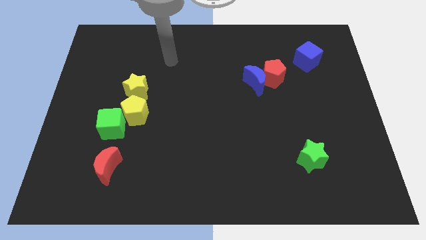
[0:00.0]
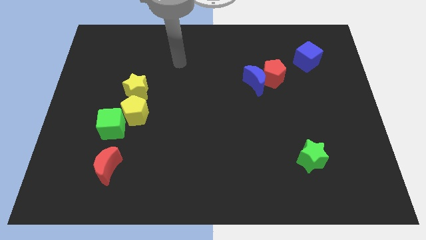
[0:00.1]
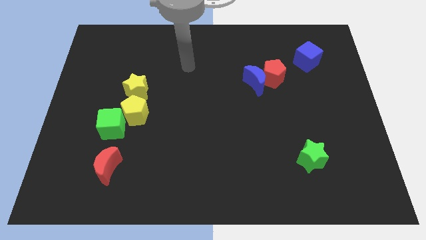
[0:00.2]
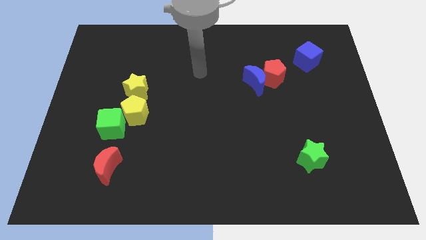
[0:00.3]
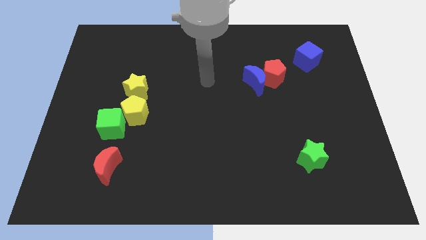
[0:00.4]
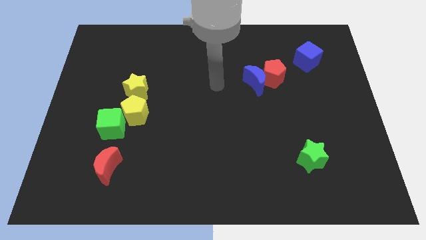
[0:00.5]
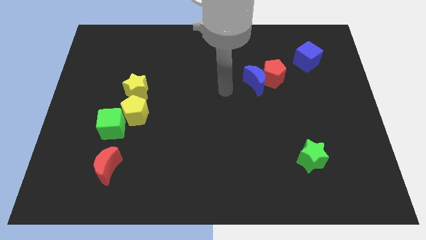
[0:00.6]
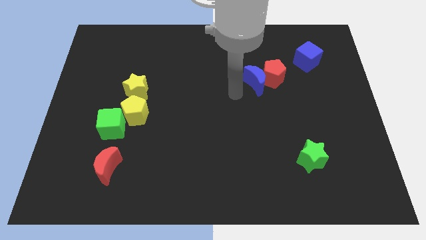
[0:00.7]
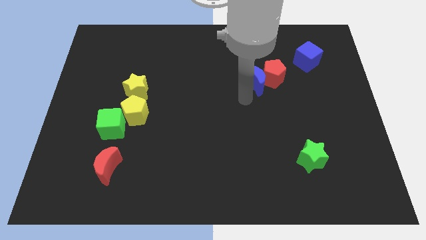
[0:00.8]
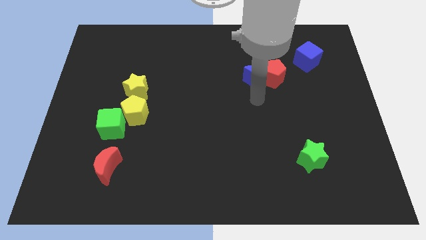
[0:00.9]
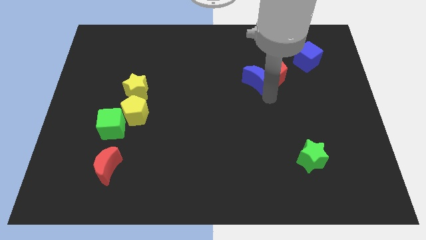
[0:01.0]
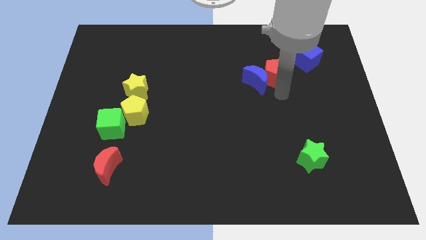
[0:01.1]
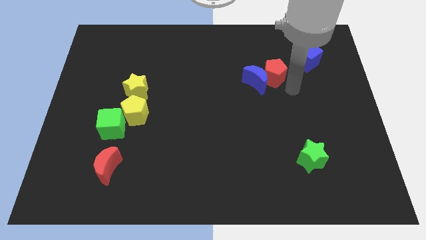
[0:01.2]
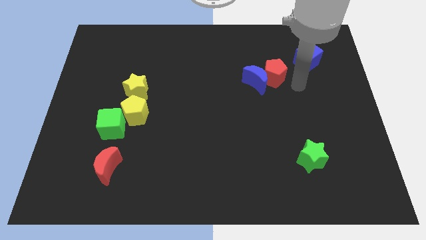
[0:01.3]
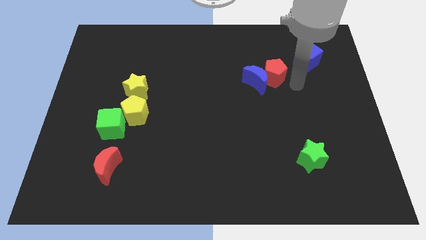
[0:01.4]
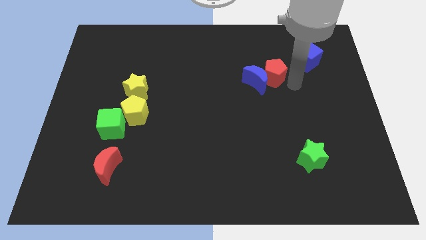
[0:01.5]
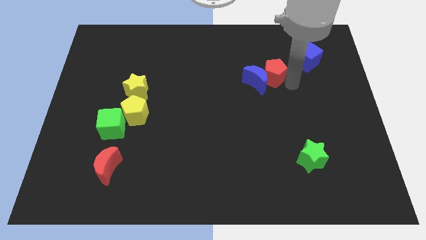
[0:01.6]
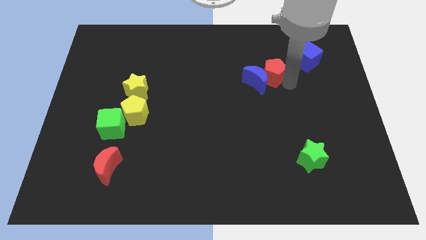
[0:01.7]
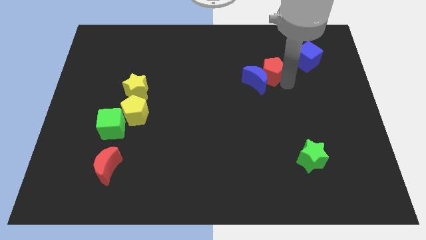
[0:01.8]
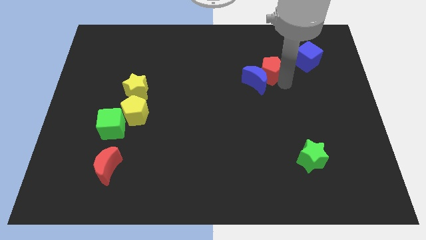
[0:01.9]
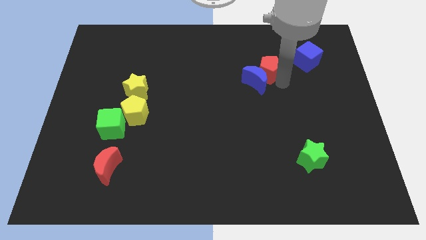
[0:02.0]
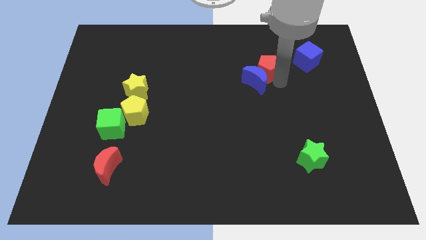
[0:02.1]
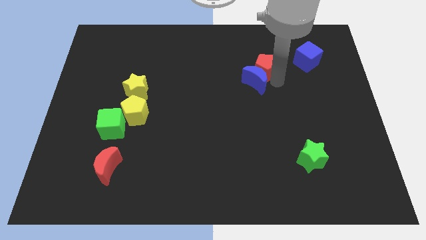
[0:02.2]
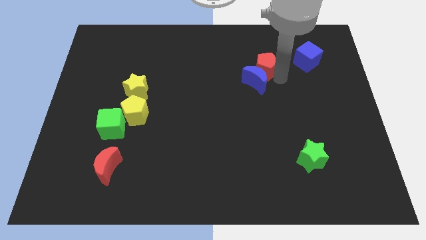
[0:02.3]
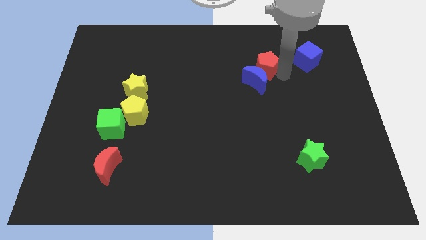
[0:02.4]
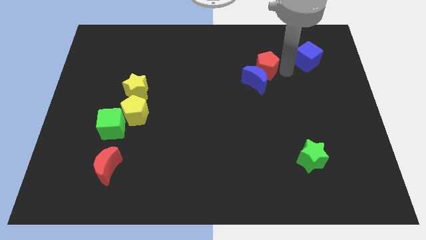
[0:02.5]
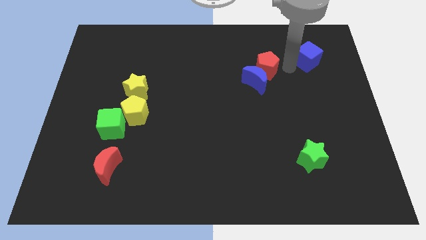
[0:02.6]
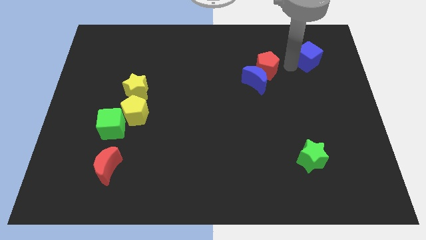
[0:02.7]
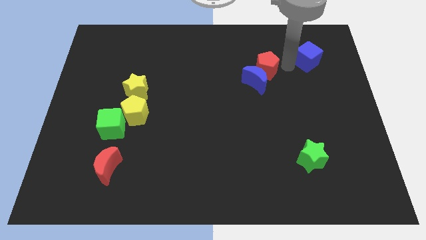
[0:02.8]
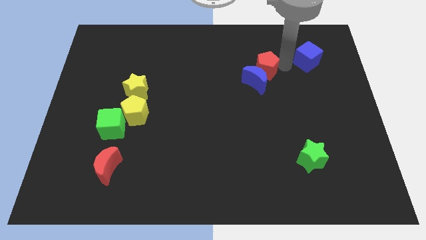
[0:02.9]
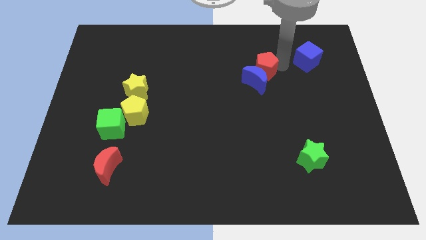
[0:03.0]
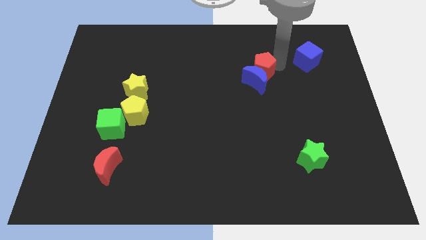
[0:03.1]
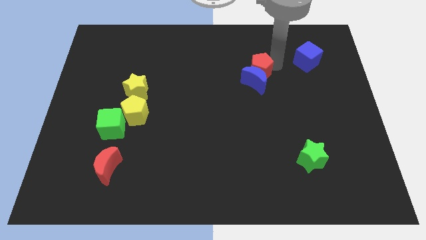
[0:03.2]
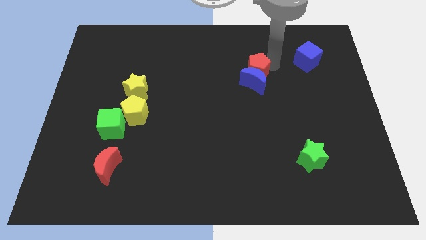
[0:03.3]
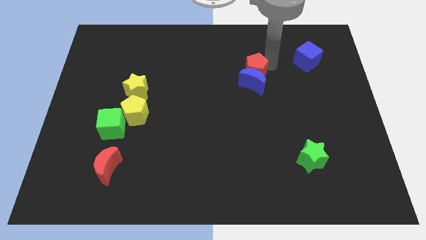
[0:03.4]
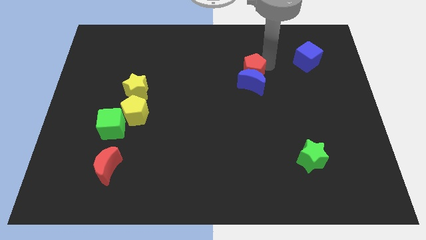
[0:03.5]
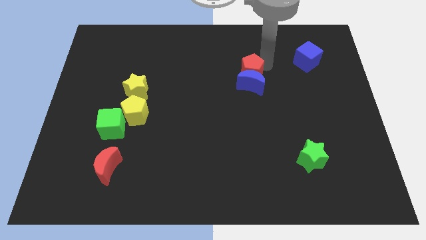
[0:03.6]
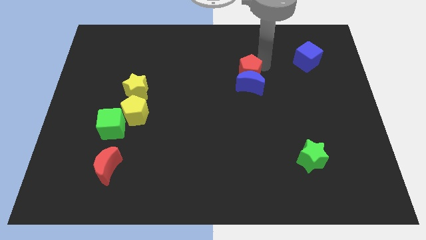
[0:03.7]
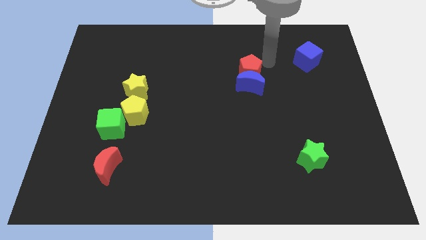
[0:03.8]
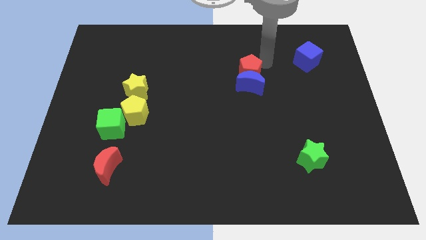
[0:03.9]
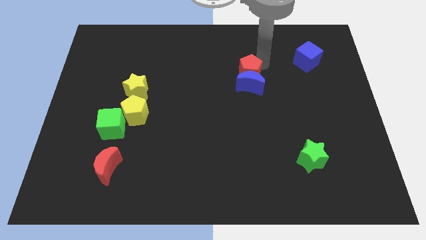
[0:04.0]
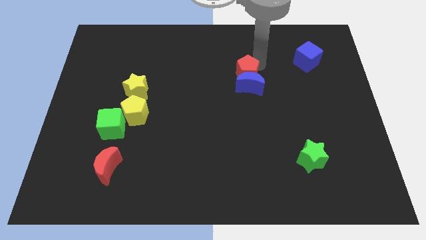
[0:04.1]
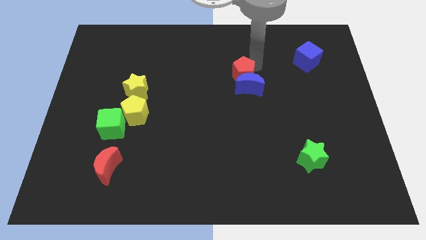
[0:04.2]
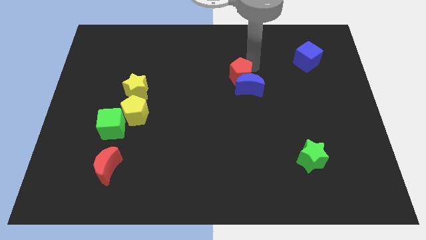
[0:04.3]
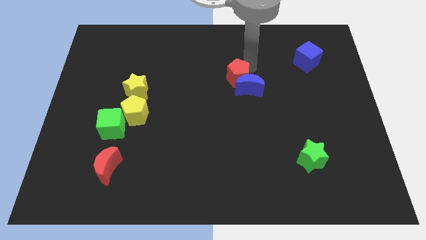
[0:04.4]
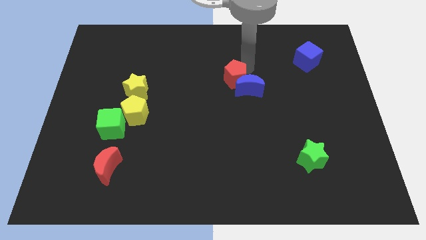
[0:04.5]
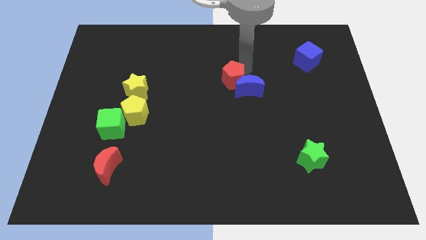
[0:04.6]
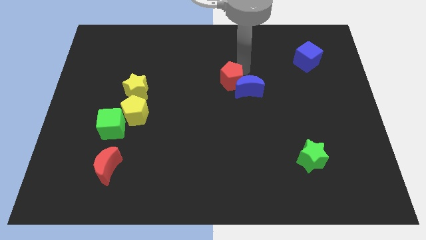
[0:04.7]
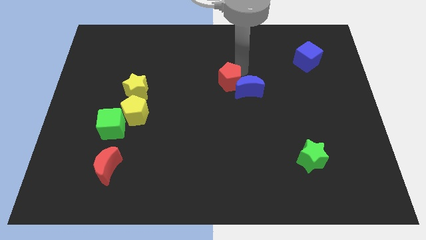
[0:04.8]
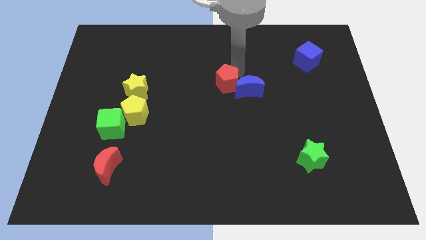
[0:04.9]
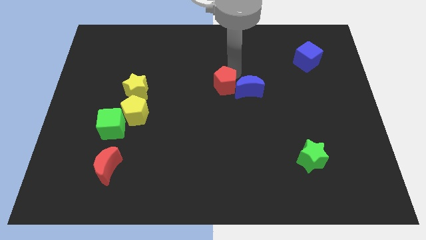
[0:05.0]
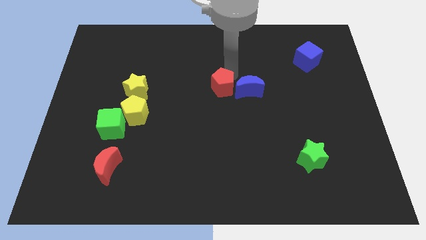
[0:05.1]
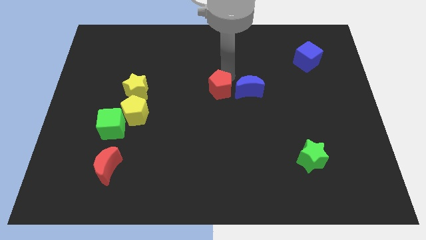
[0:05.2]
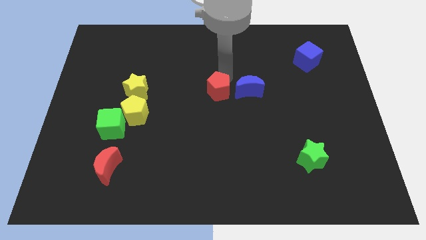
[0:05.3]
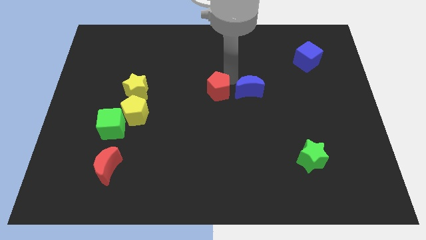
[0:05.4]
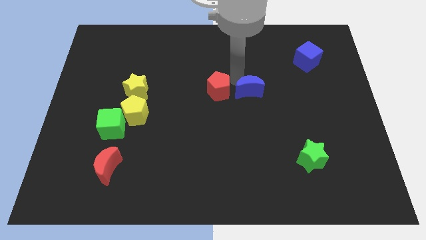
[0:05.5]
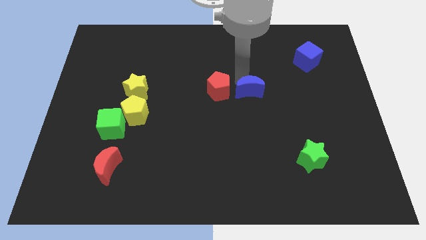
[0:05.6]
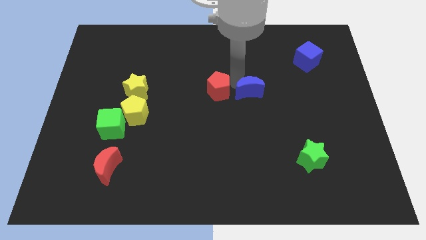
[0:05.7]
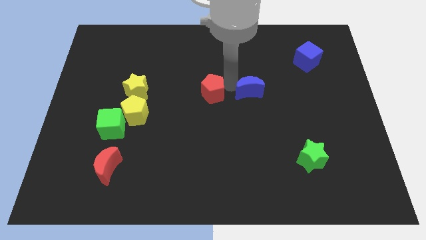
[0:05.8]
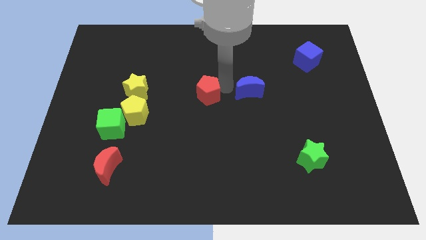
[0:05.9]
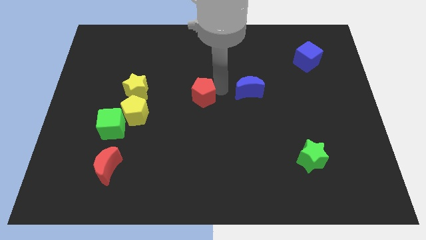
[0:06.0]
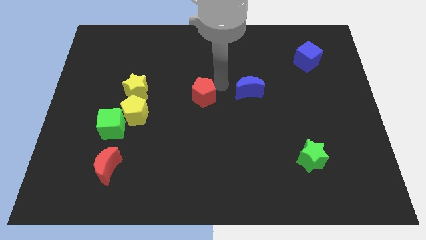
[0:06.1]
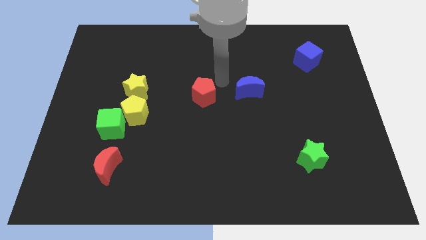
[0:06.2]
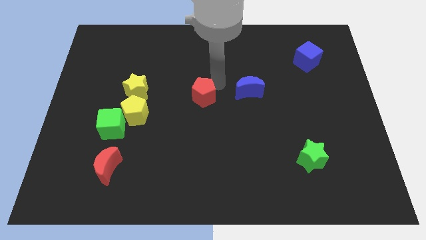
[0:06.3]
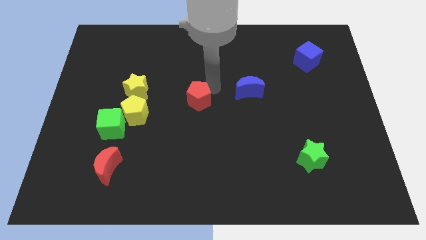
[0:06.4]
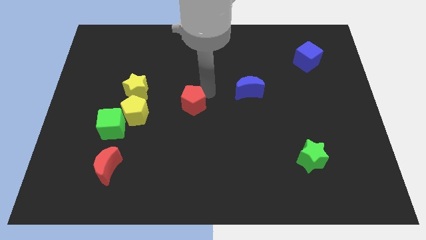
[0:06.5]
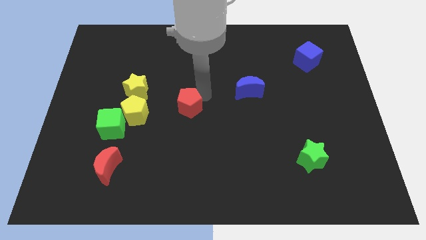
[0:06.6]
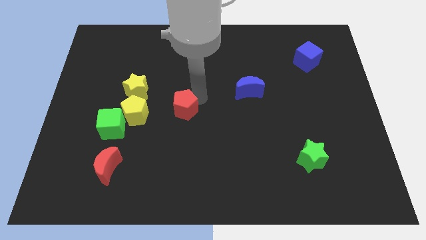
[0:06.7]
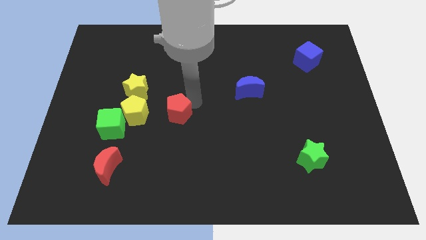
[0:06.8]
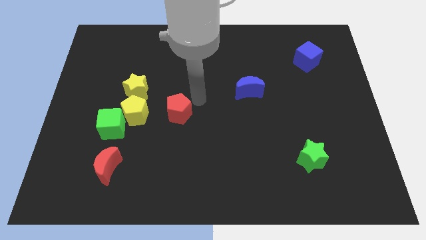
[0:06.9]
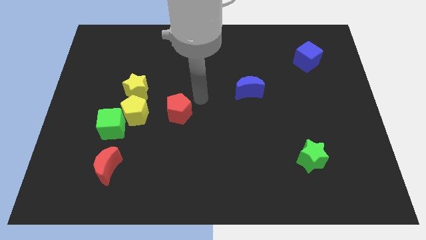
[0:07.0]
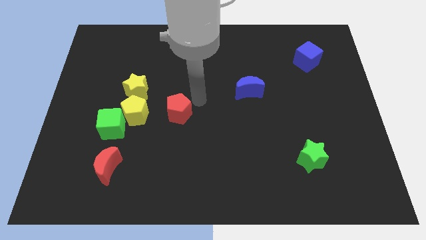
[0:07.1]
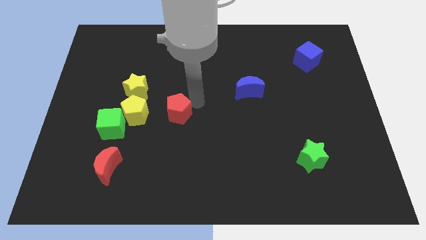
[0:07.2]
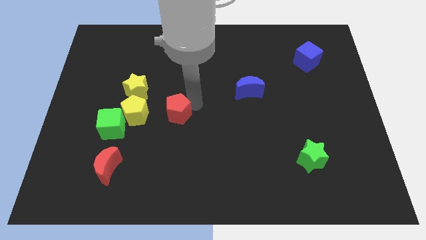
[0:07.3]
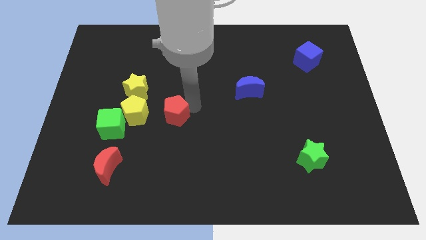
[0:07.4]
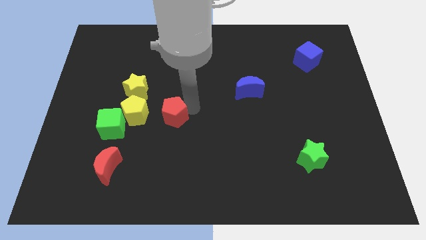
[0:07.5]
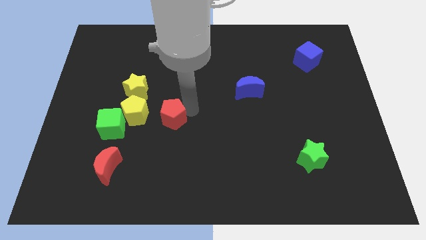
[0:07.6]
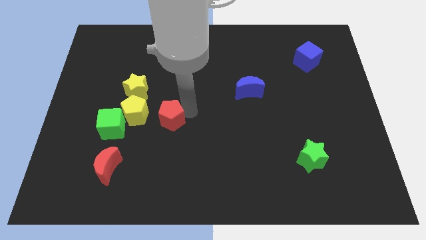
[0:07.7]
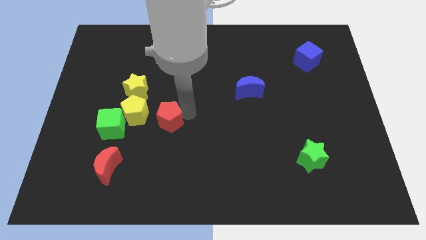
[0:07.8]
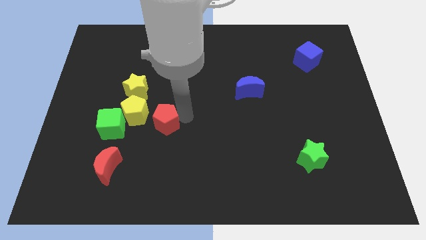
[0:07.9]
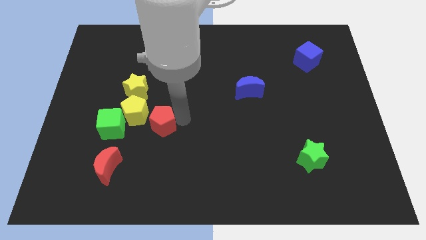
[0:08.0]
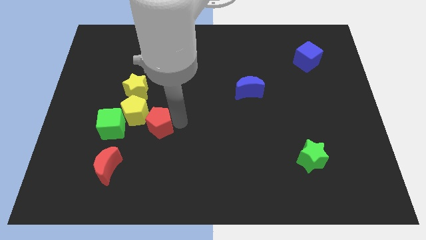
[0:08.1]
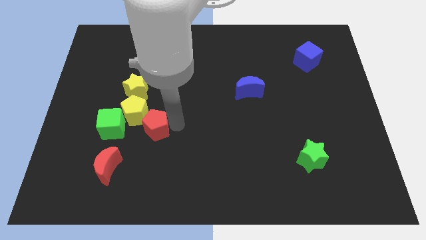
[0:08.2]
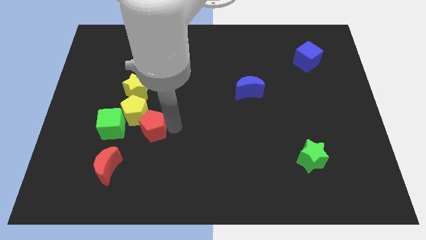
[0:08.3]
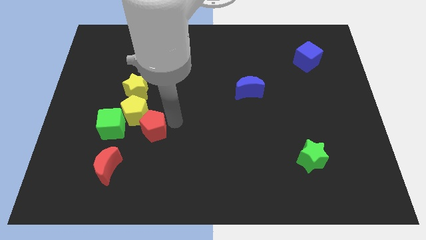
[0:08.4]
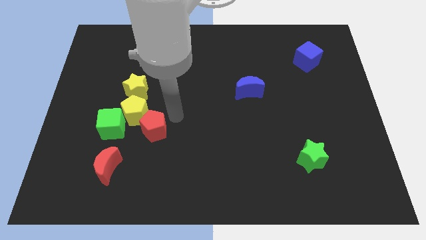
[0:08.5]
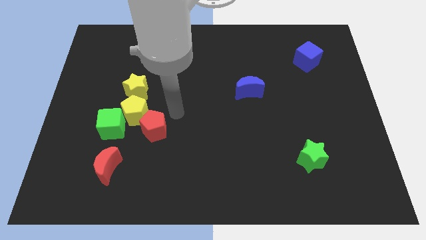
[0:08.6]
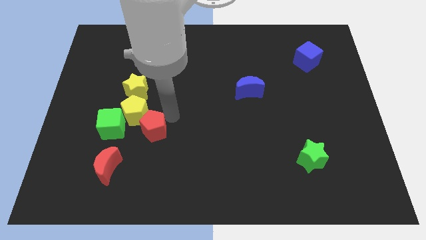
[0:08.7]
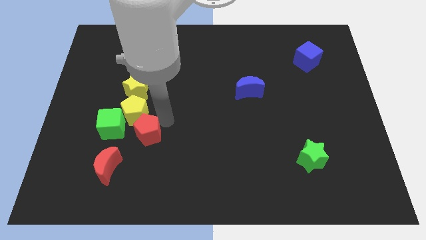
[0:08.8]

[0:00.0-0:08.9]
put the red pentagon to the bottom right of the green cube
